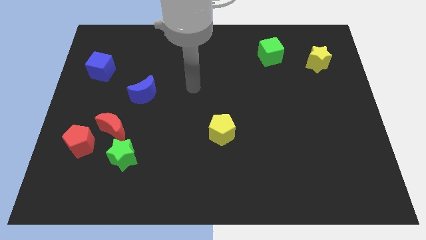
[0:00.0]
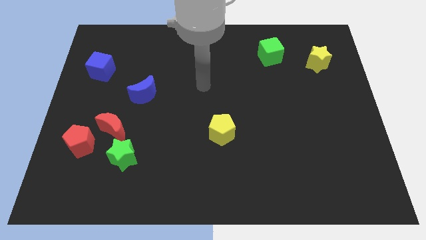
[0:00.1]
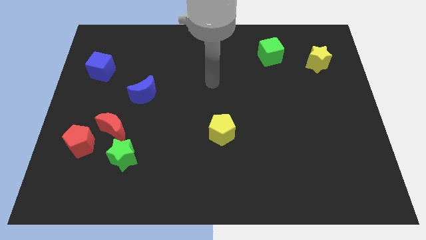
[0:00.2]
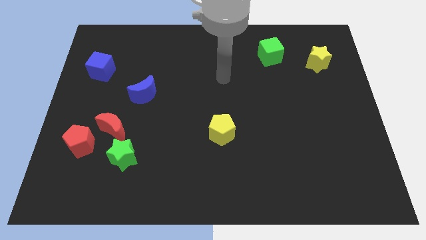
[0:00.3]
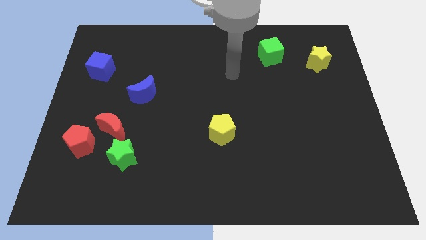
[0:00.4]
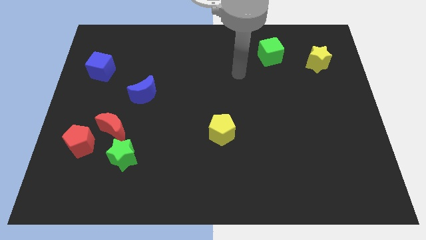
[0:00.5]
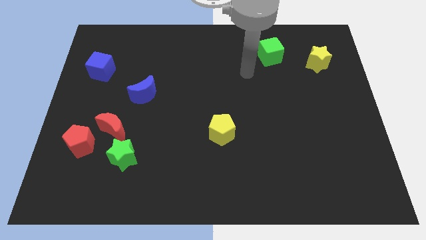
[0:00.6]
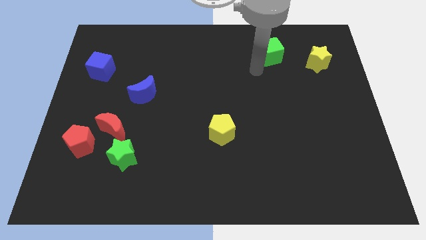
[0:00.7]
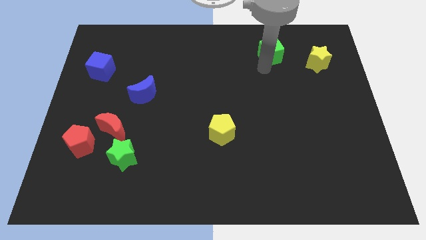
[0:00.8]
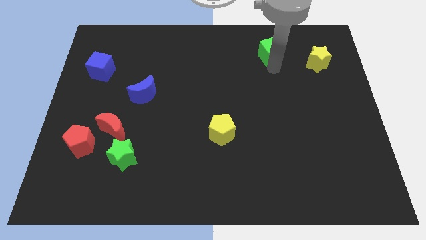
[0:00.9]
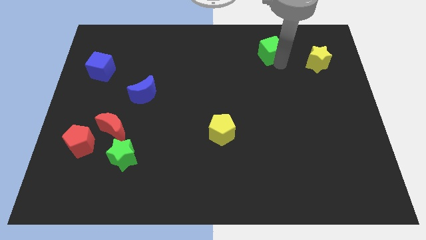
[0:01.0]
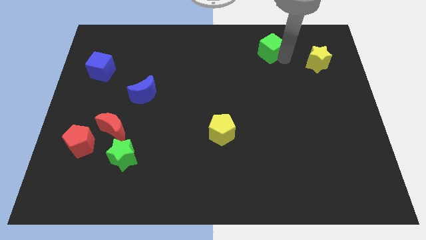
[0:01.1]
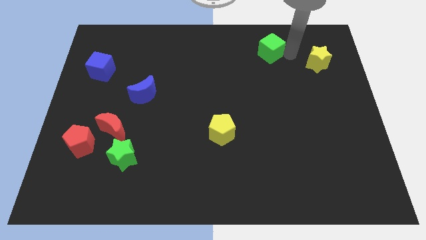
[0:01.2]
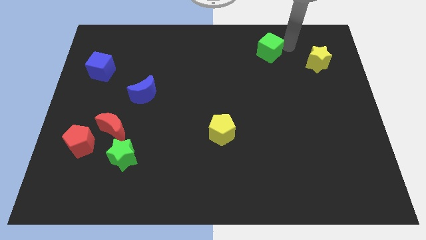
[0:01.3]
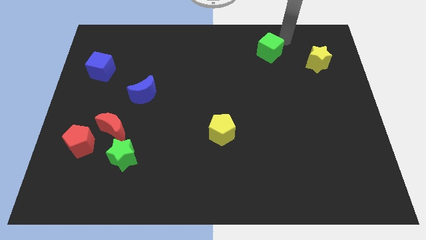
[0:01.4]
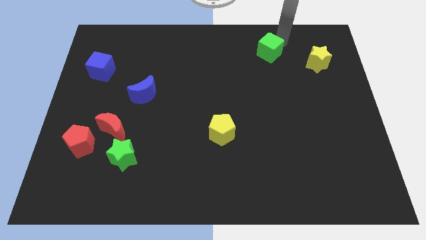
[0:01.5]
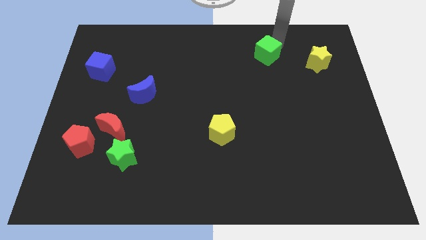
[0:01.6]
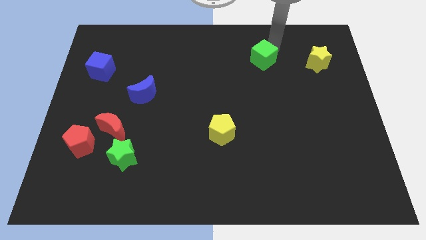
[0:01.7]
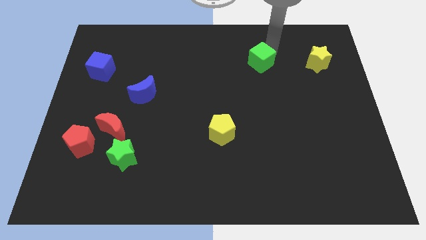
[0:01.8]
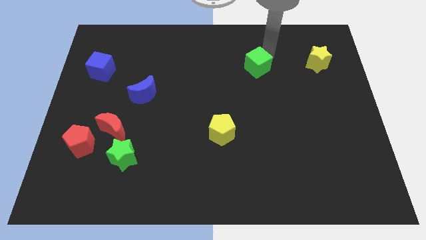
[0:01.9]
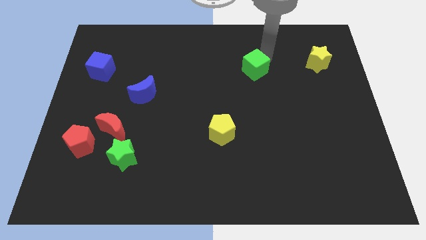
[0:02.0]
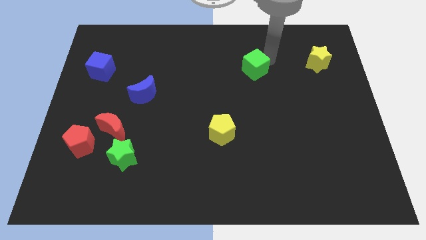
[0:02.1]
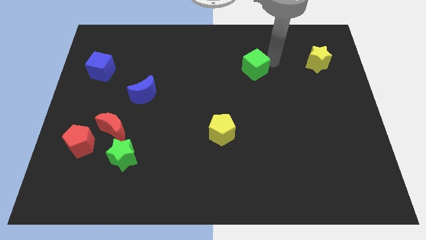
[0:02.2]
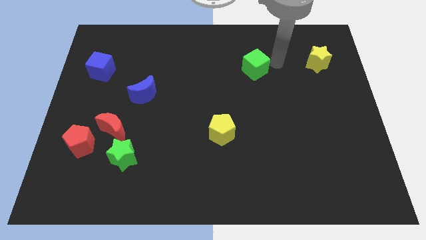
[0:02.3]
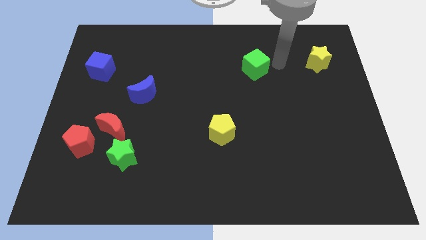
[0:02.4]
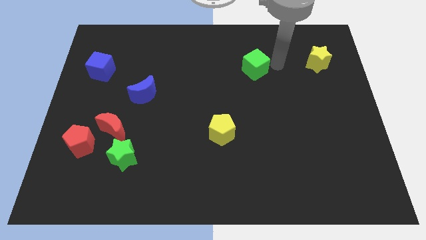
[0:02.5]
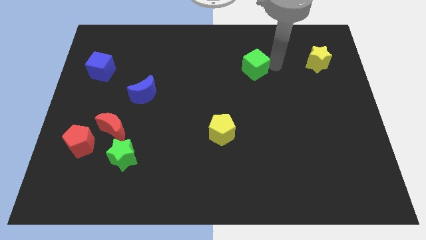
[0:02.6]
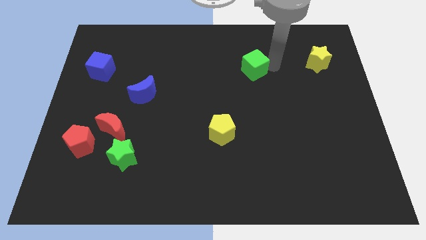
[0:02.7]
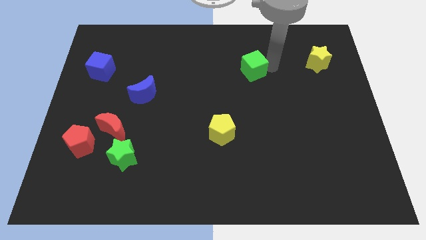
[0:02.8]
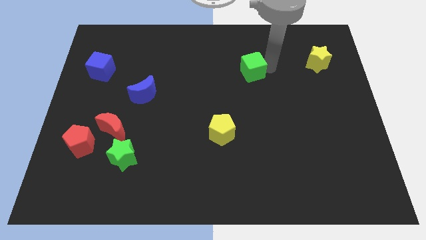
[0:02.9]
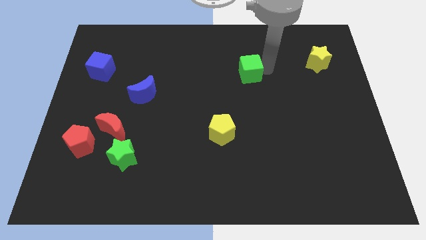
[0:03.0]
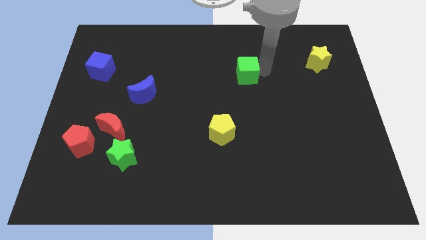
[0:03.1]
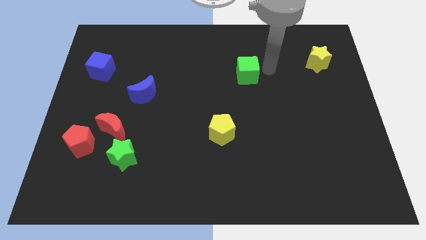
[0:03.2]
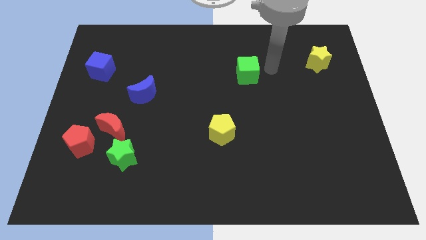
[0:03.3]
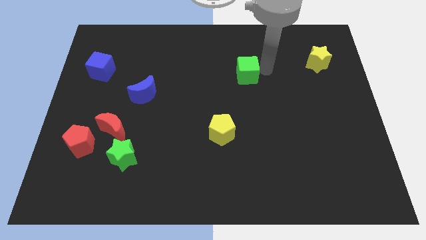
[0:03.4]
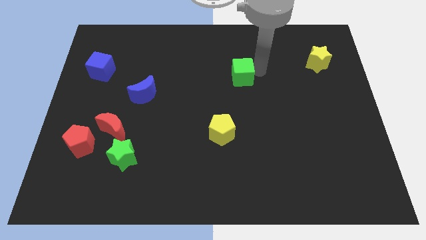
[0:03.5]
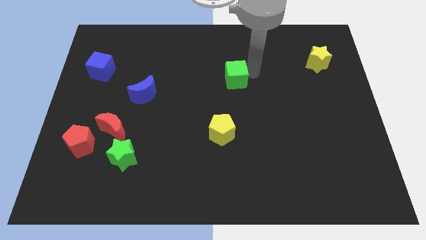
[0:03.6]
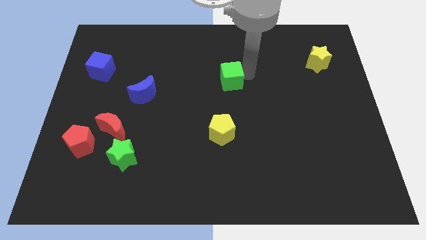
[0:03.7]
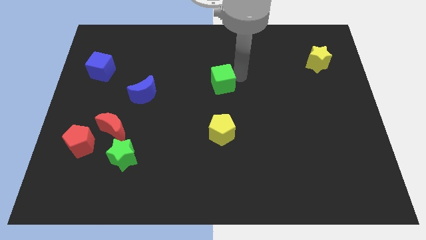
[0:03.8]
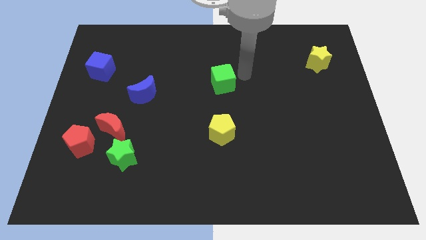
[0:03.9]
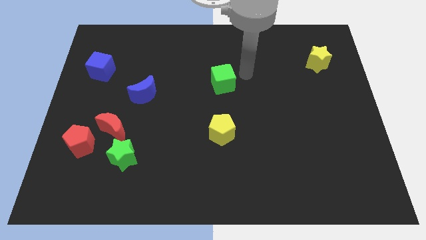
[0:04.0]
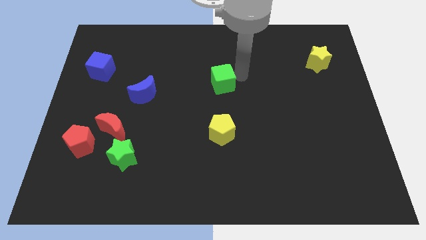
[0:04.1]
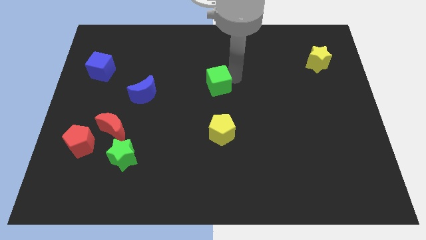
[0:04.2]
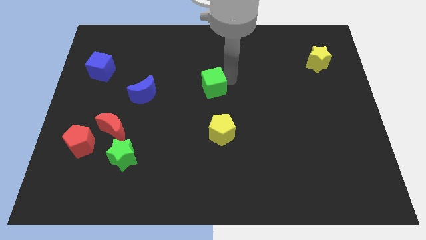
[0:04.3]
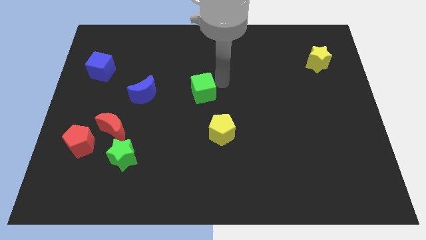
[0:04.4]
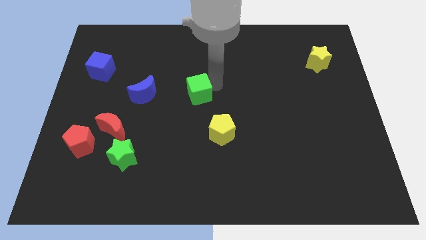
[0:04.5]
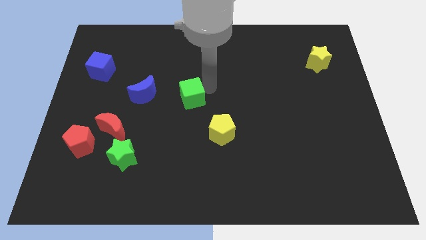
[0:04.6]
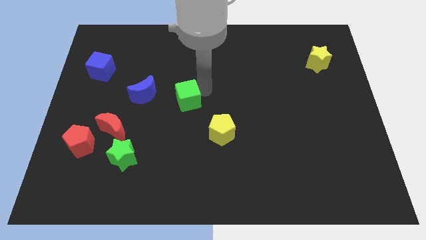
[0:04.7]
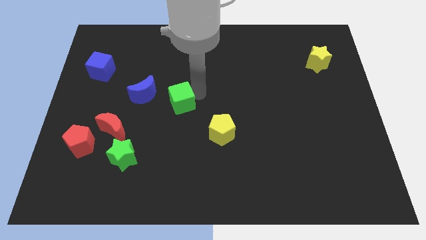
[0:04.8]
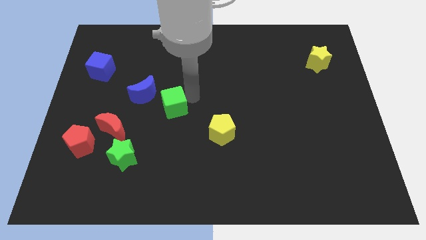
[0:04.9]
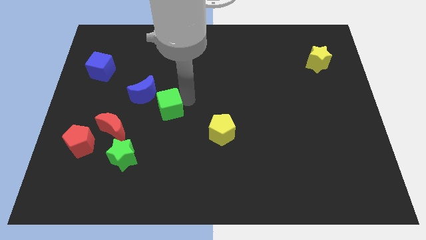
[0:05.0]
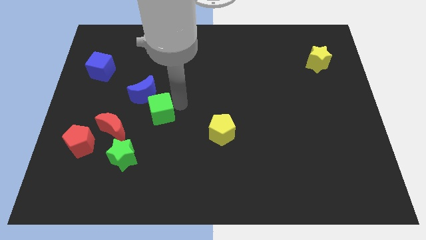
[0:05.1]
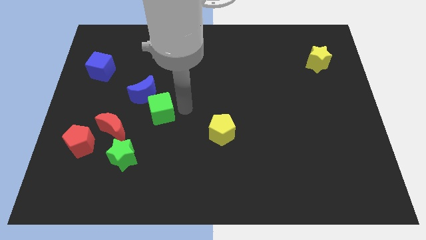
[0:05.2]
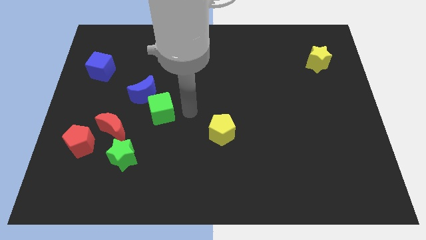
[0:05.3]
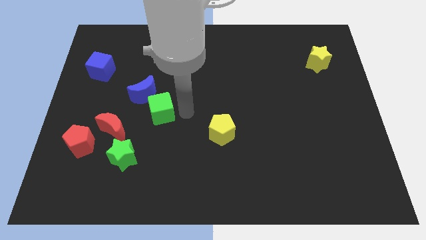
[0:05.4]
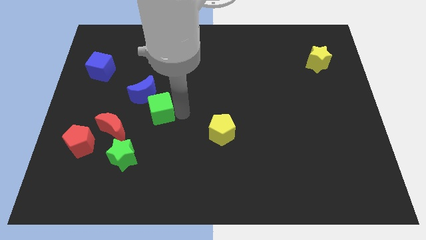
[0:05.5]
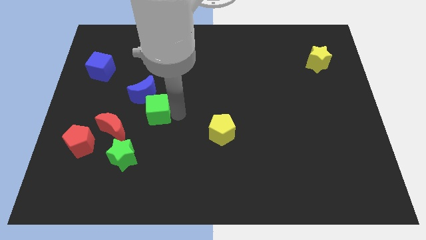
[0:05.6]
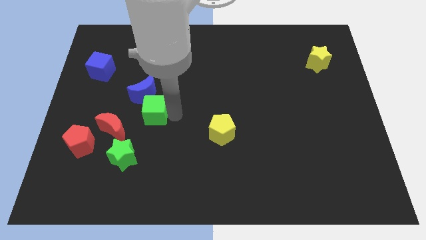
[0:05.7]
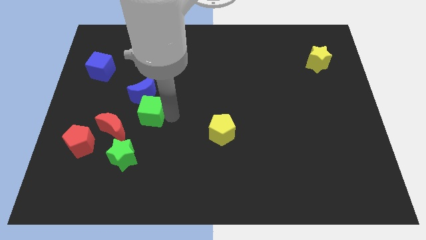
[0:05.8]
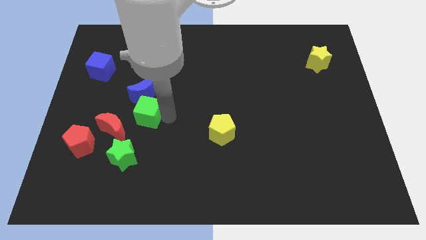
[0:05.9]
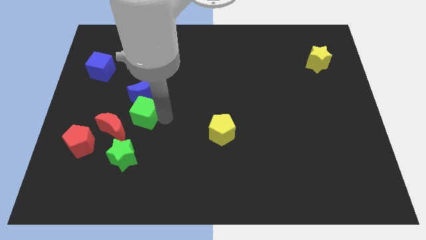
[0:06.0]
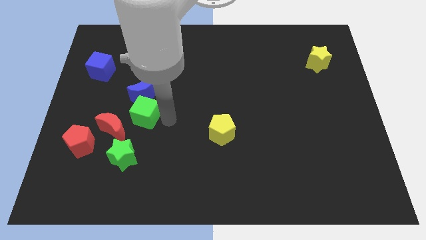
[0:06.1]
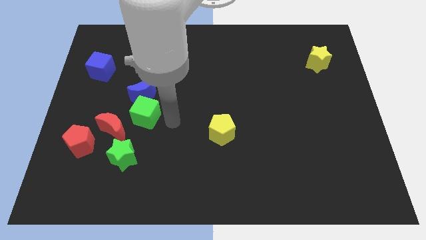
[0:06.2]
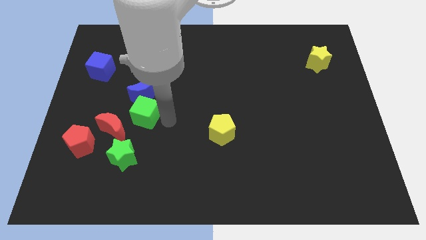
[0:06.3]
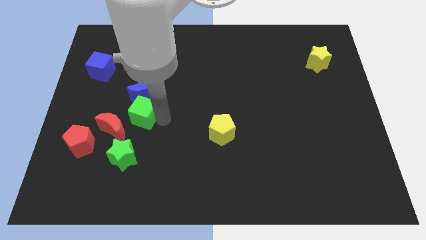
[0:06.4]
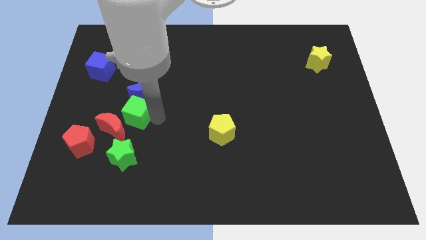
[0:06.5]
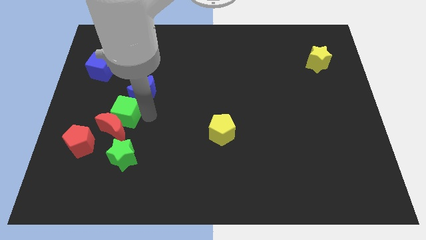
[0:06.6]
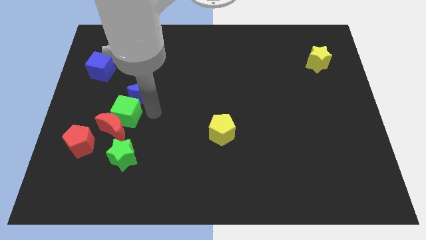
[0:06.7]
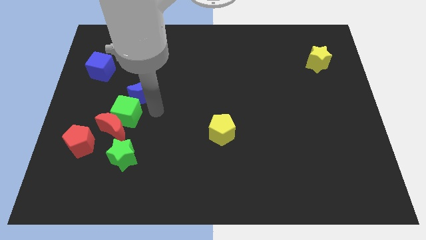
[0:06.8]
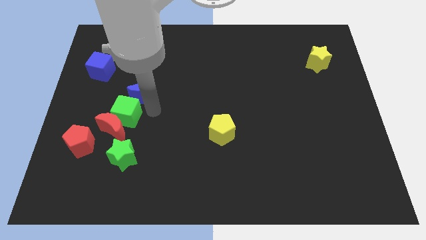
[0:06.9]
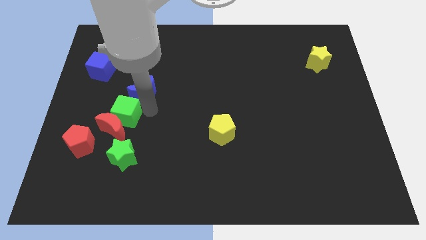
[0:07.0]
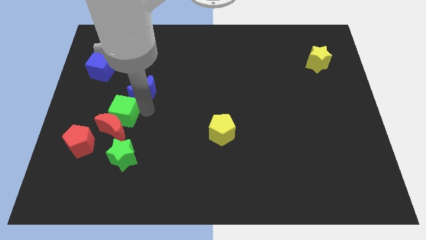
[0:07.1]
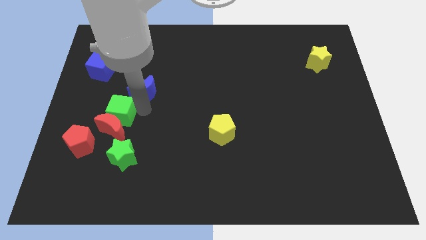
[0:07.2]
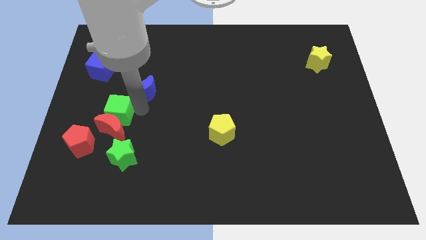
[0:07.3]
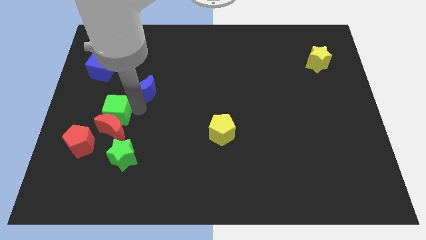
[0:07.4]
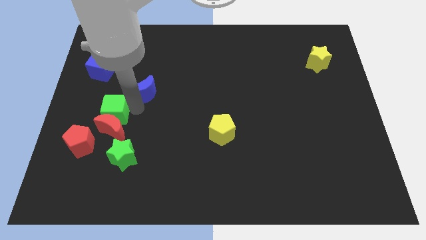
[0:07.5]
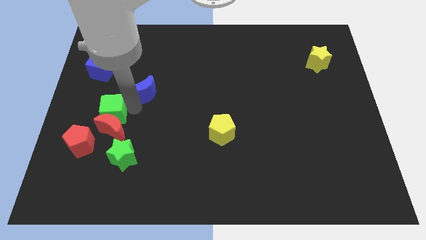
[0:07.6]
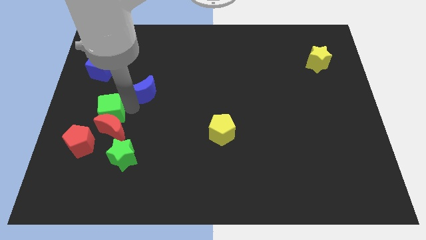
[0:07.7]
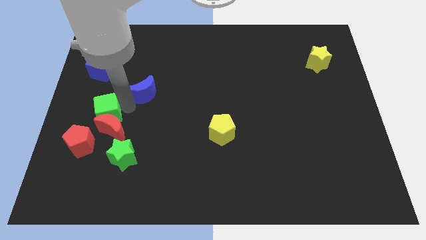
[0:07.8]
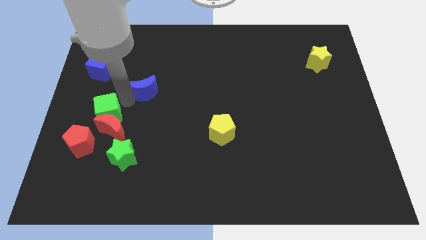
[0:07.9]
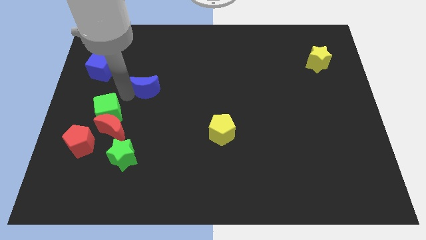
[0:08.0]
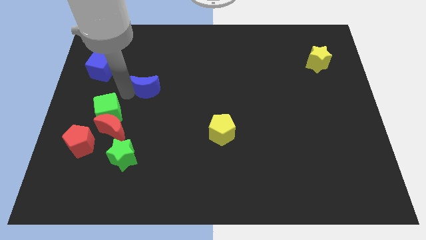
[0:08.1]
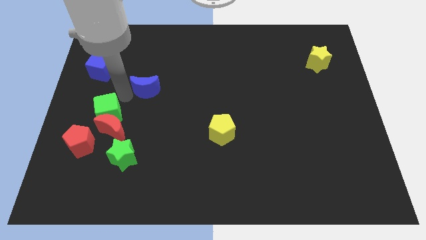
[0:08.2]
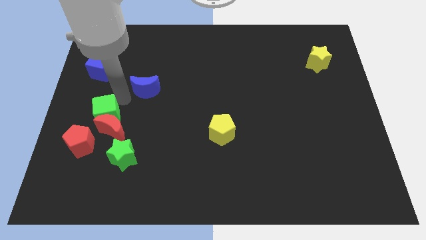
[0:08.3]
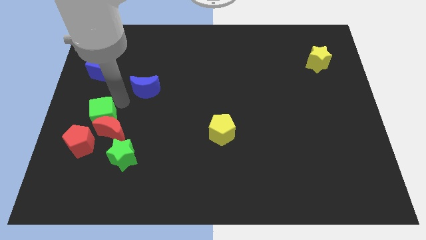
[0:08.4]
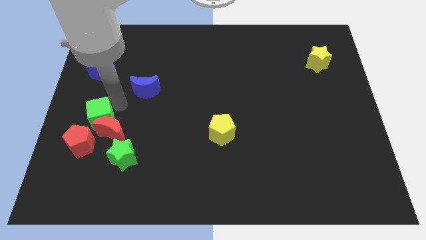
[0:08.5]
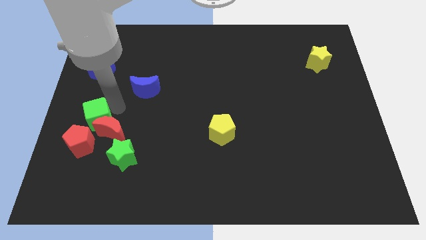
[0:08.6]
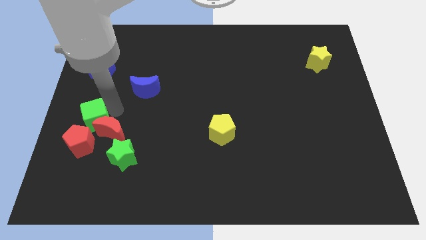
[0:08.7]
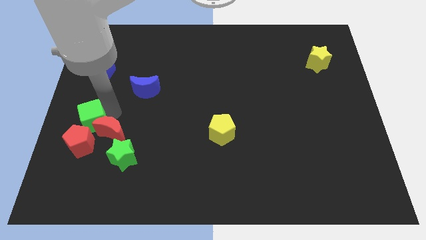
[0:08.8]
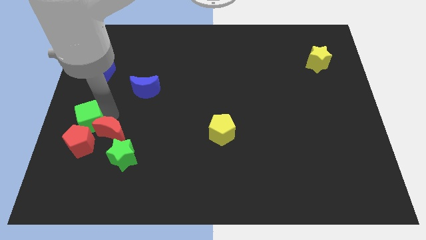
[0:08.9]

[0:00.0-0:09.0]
move the green cube next to the red pentagon
